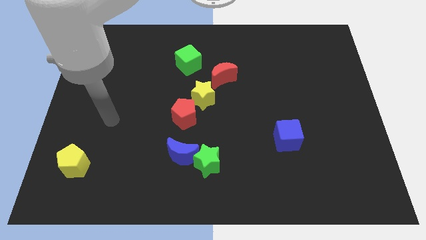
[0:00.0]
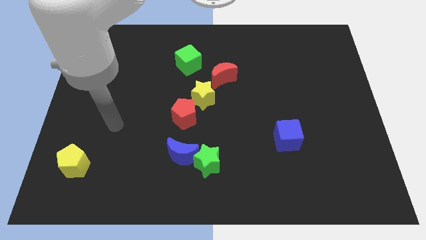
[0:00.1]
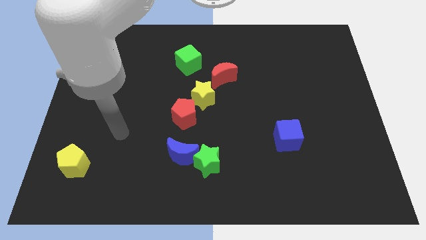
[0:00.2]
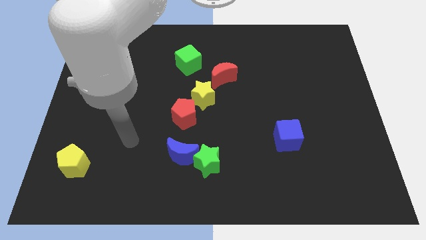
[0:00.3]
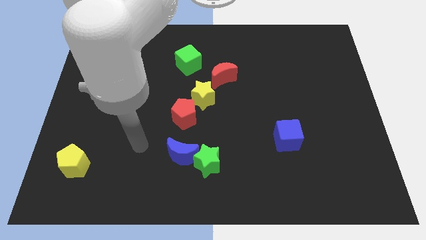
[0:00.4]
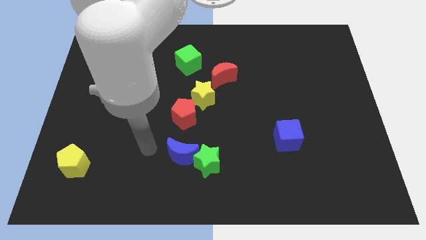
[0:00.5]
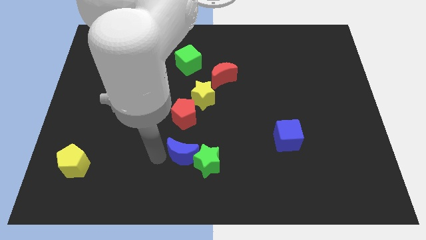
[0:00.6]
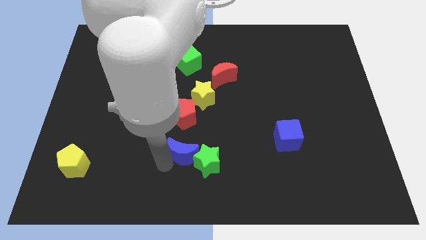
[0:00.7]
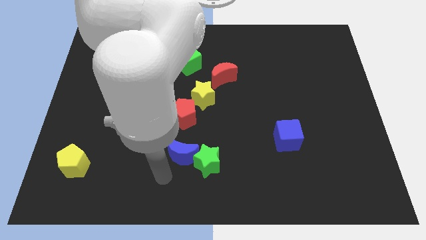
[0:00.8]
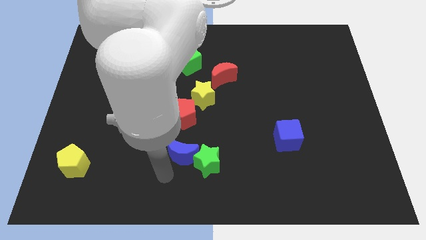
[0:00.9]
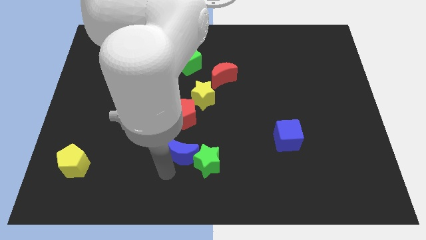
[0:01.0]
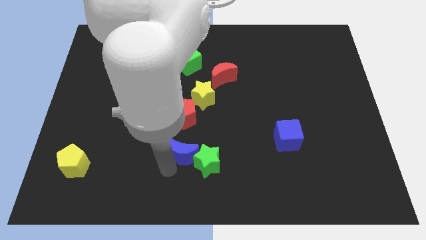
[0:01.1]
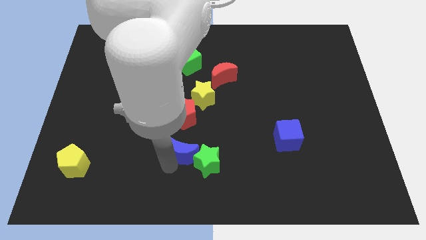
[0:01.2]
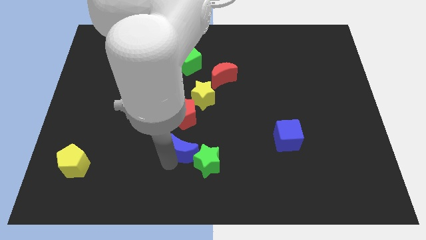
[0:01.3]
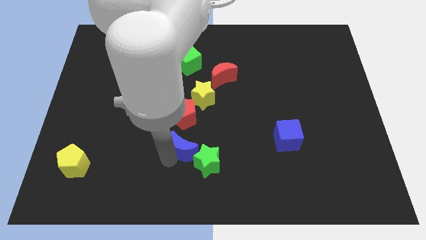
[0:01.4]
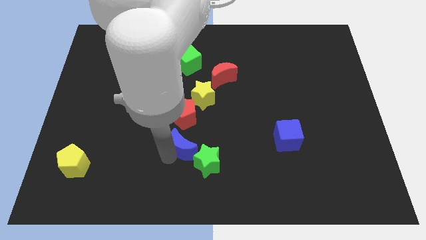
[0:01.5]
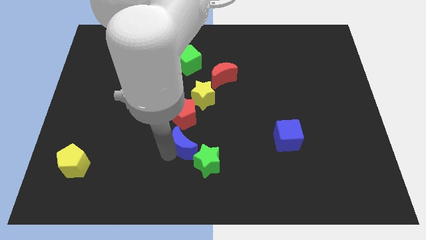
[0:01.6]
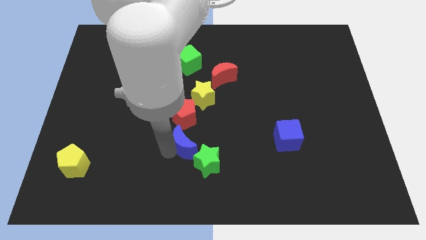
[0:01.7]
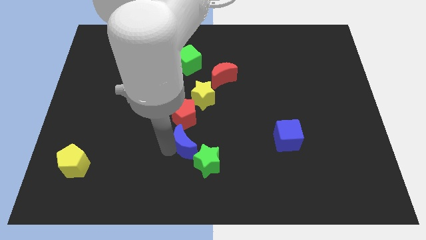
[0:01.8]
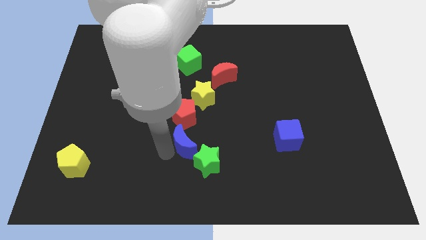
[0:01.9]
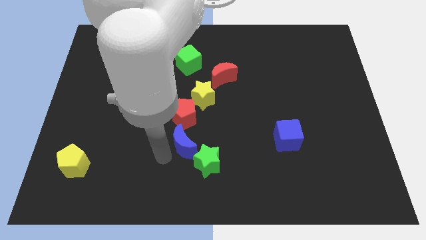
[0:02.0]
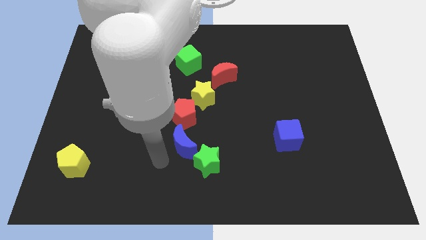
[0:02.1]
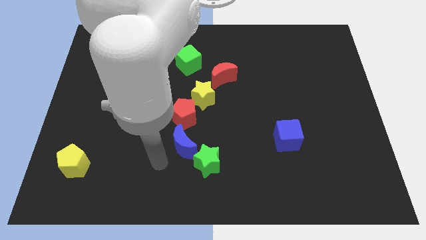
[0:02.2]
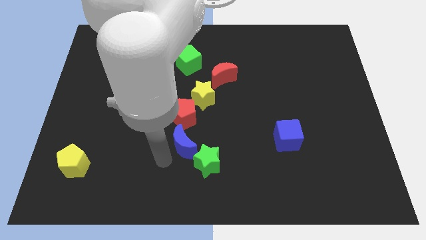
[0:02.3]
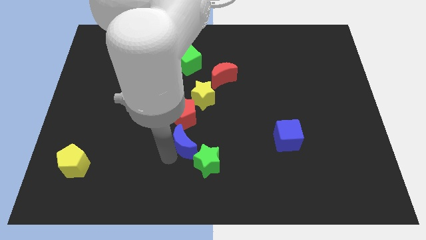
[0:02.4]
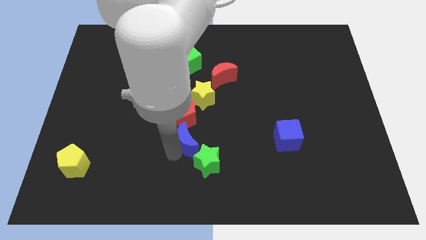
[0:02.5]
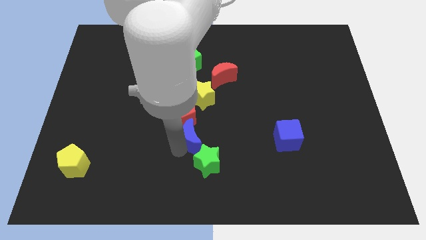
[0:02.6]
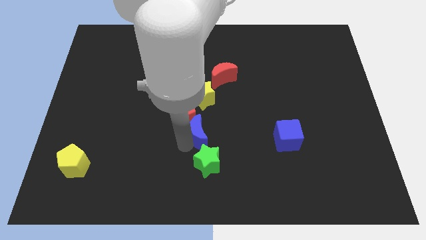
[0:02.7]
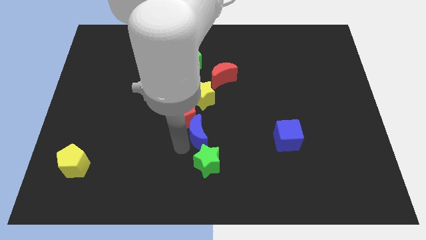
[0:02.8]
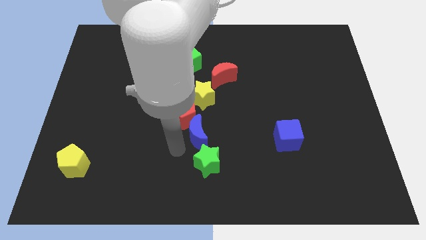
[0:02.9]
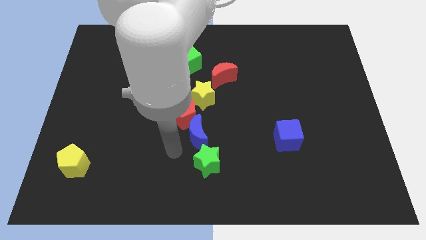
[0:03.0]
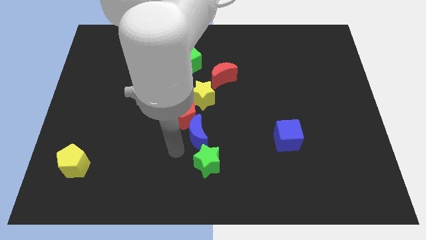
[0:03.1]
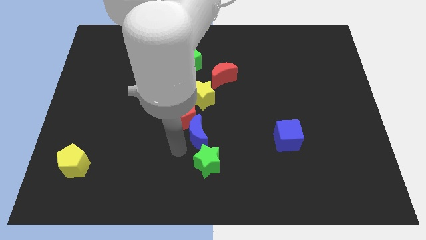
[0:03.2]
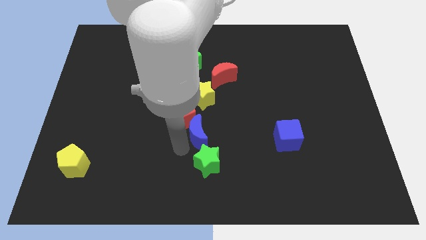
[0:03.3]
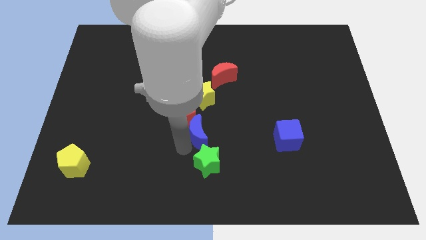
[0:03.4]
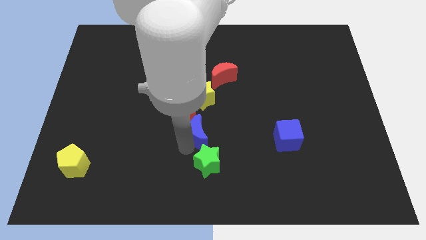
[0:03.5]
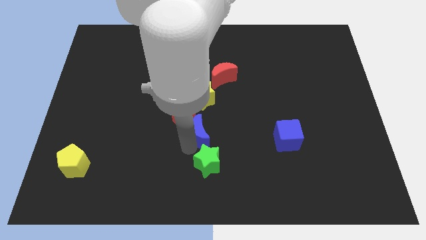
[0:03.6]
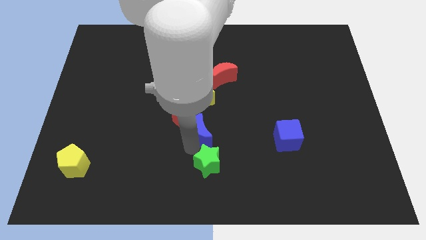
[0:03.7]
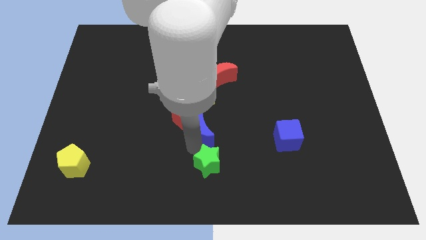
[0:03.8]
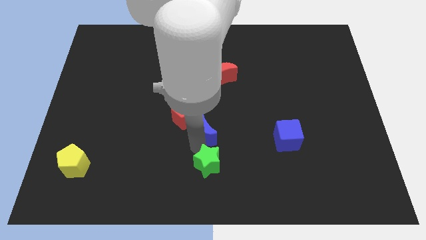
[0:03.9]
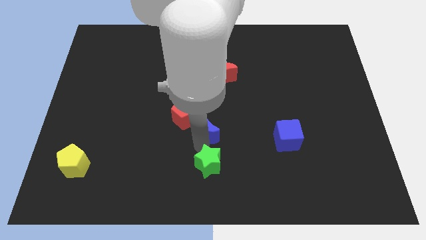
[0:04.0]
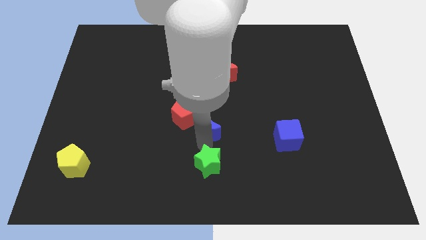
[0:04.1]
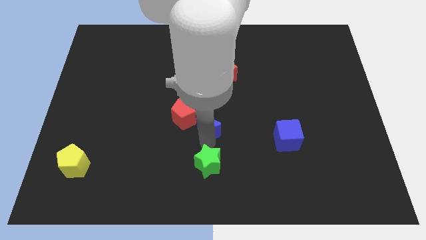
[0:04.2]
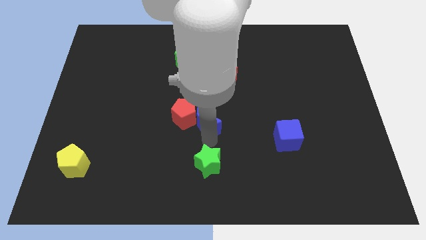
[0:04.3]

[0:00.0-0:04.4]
push the blue moon to the bottom of the red moon

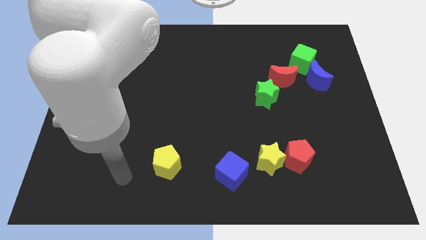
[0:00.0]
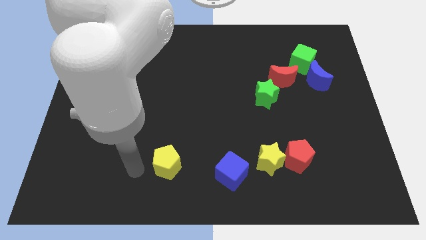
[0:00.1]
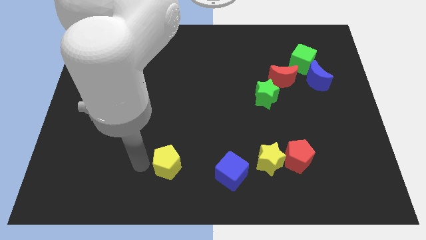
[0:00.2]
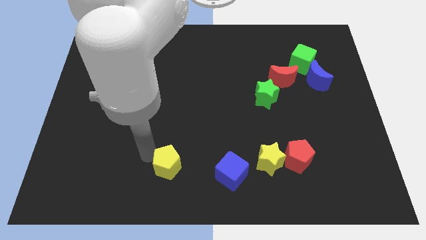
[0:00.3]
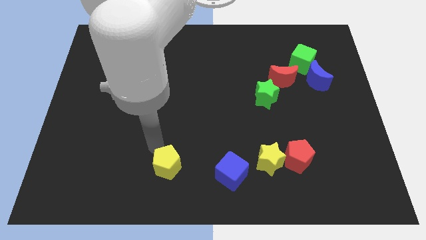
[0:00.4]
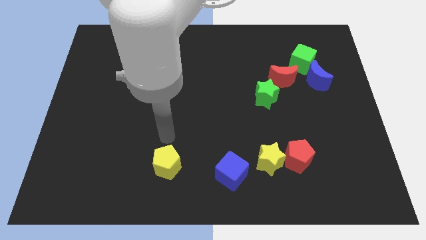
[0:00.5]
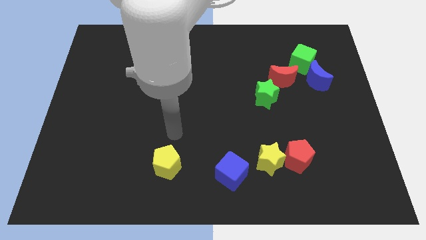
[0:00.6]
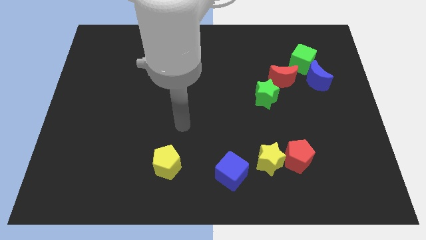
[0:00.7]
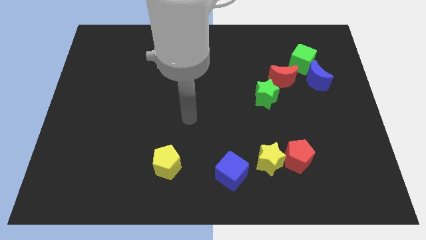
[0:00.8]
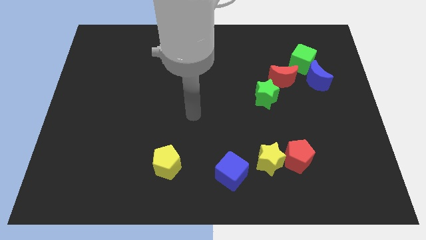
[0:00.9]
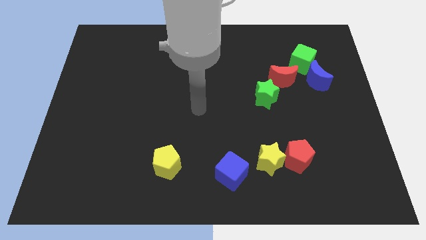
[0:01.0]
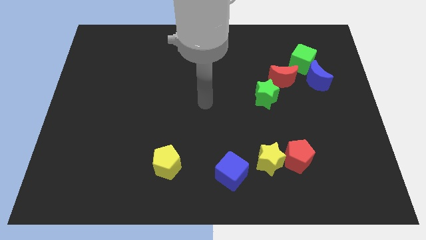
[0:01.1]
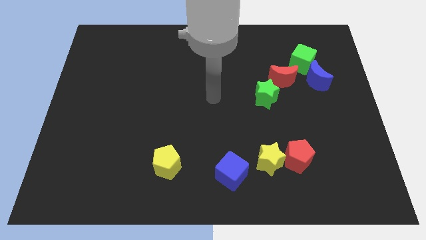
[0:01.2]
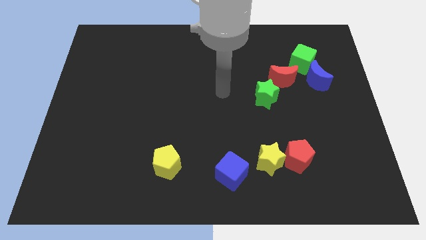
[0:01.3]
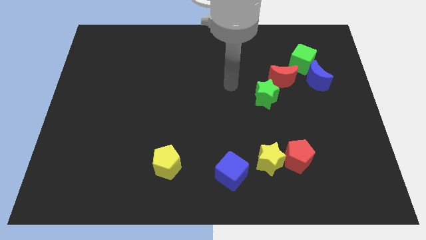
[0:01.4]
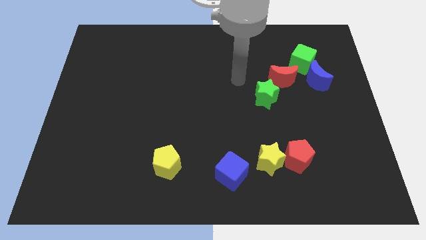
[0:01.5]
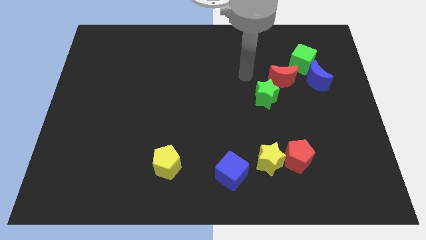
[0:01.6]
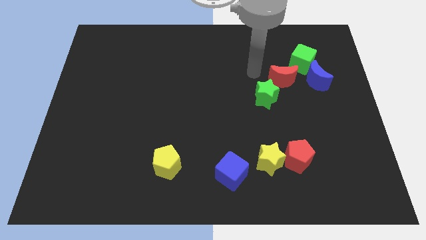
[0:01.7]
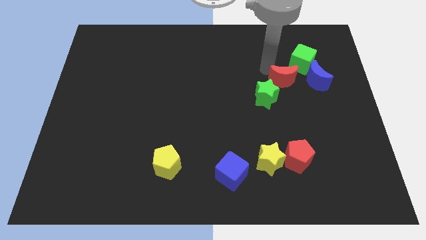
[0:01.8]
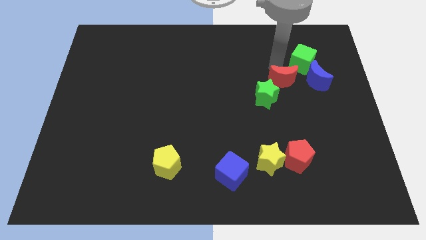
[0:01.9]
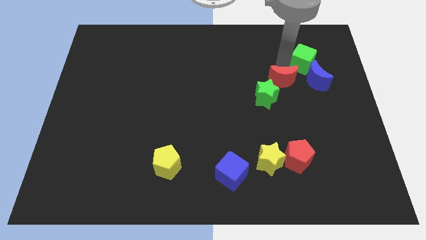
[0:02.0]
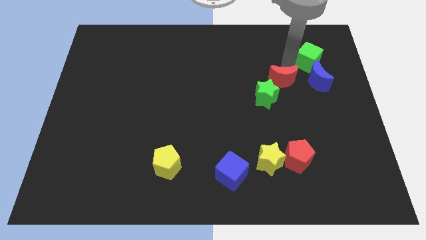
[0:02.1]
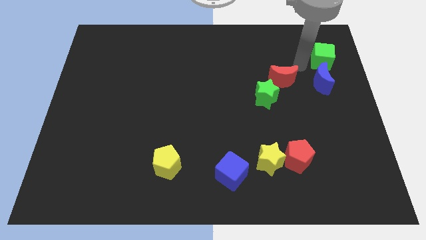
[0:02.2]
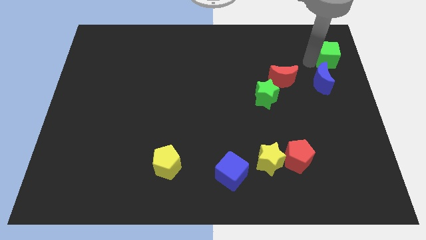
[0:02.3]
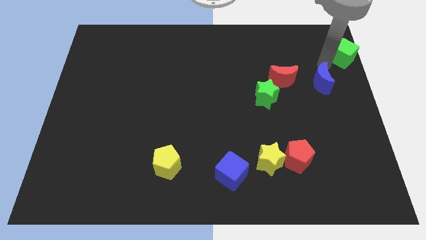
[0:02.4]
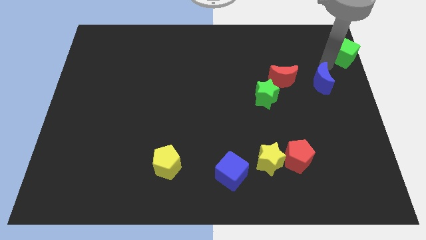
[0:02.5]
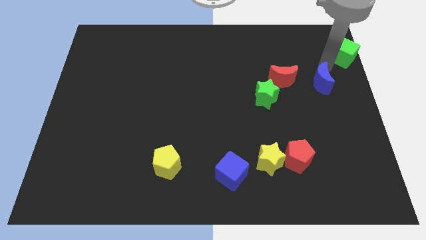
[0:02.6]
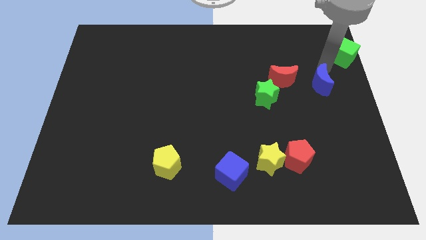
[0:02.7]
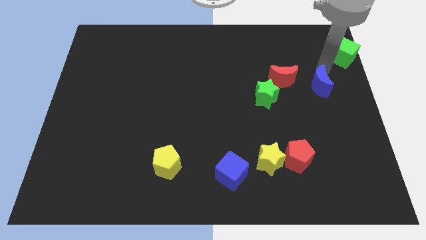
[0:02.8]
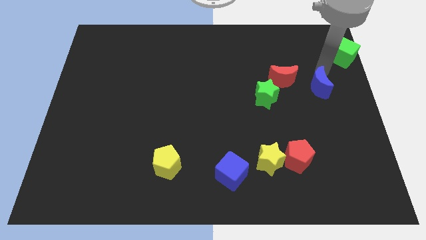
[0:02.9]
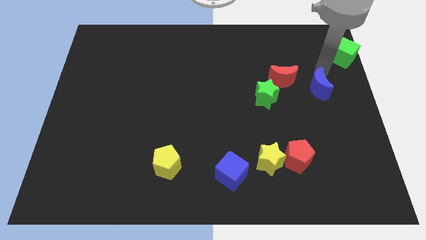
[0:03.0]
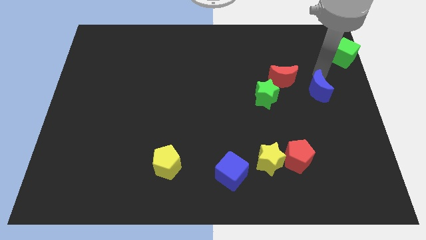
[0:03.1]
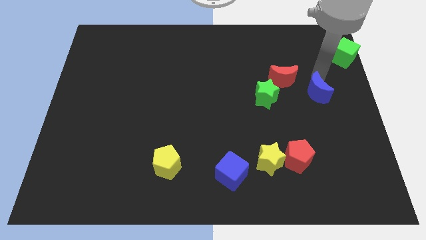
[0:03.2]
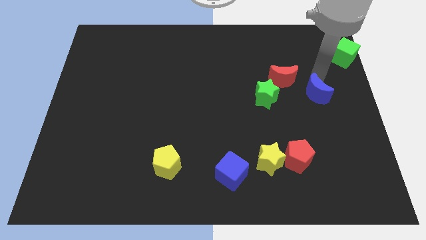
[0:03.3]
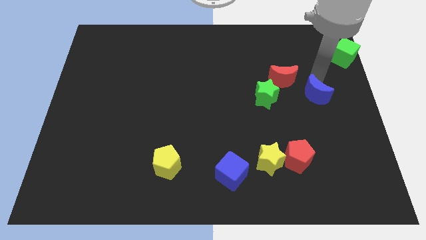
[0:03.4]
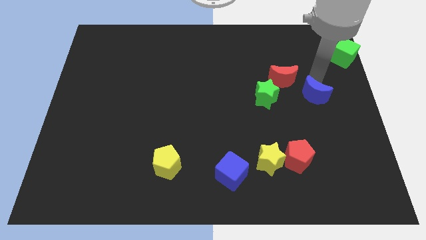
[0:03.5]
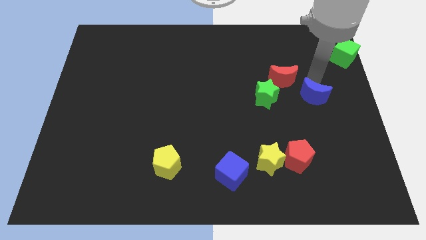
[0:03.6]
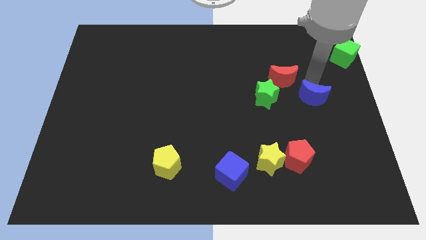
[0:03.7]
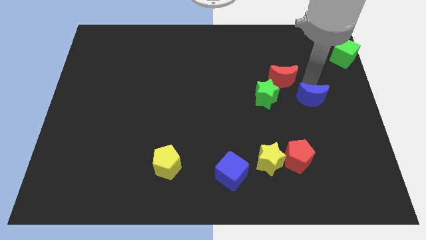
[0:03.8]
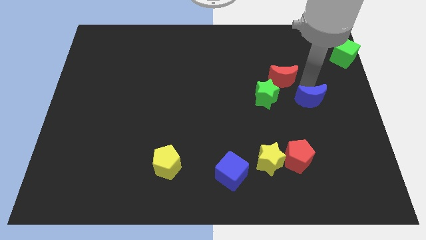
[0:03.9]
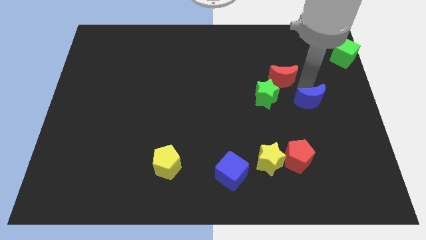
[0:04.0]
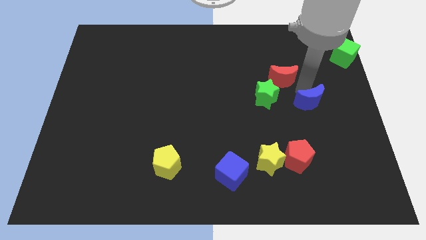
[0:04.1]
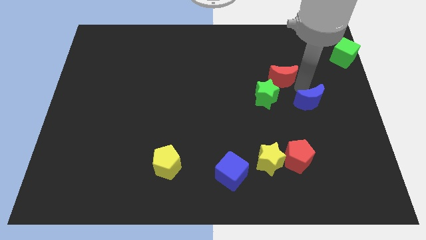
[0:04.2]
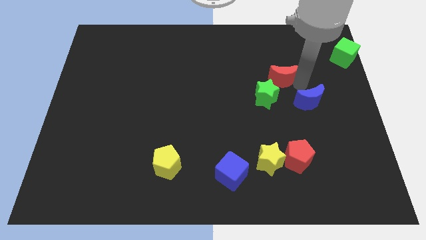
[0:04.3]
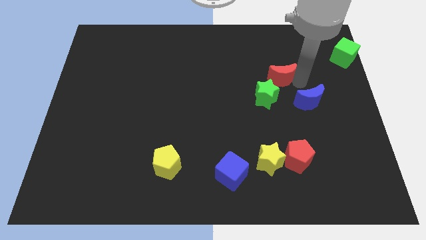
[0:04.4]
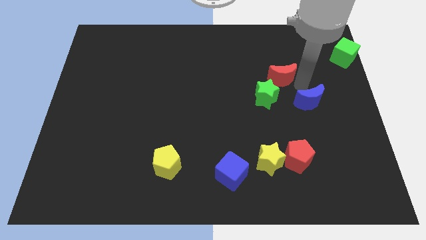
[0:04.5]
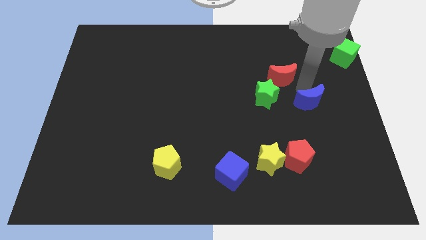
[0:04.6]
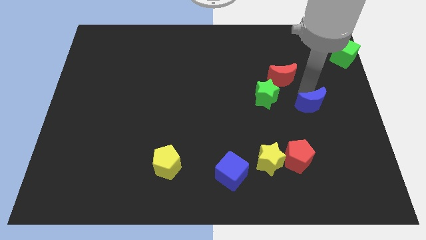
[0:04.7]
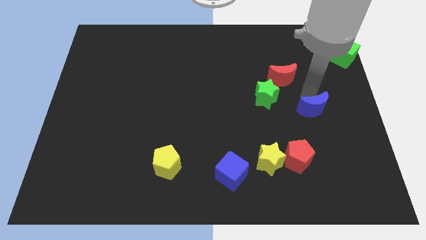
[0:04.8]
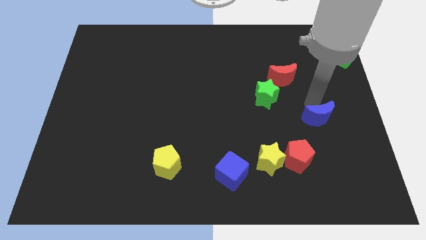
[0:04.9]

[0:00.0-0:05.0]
push the blue moon to the top right of the red pentagon
